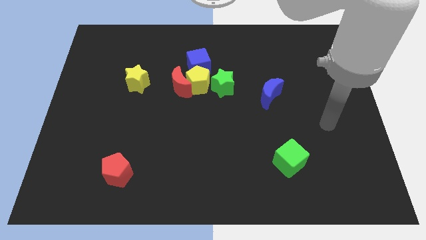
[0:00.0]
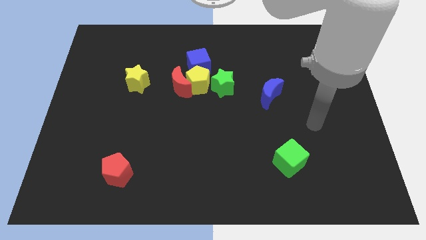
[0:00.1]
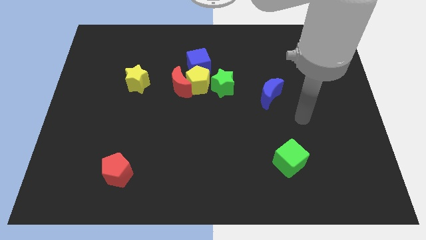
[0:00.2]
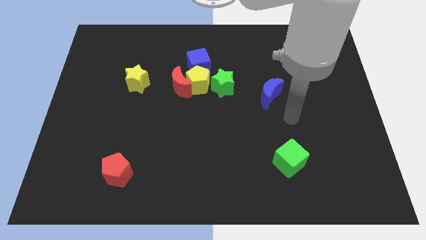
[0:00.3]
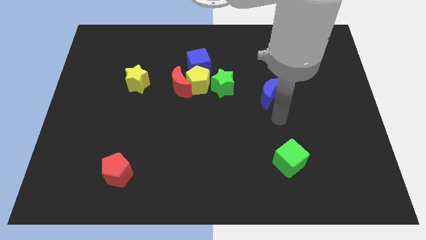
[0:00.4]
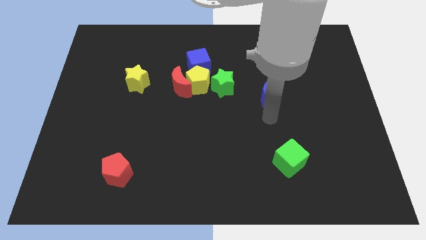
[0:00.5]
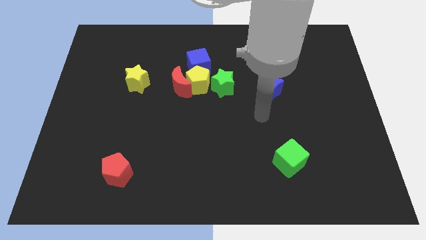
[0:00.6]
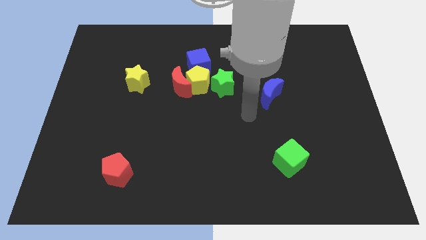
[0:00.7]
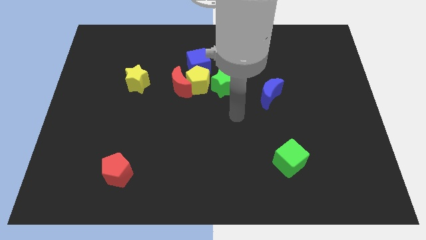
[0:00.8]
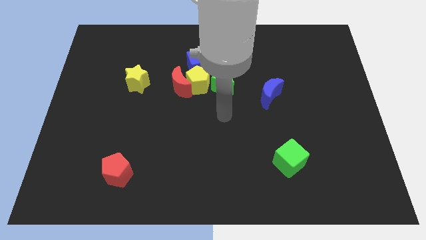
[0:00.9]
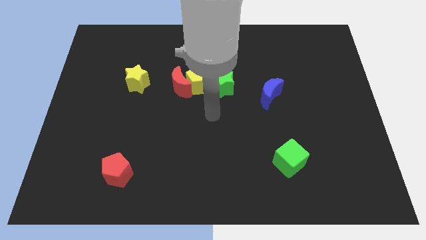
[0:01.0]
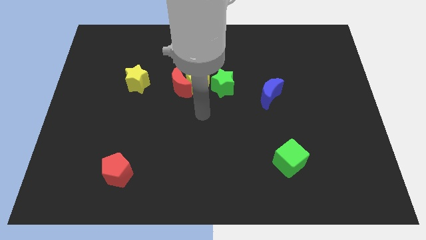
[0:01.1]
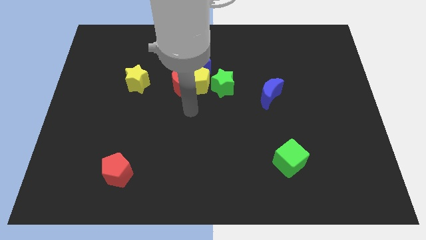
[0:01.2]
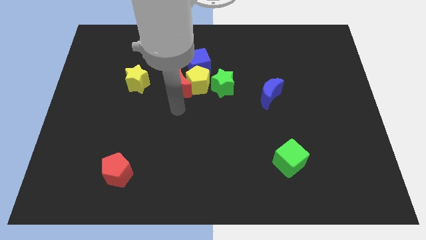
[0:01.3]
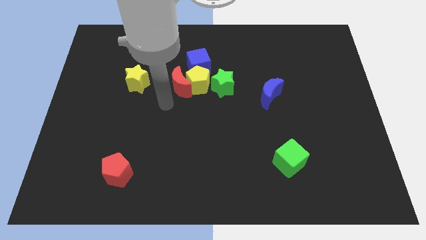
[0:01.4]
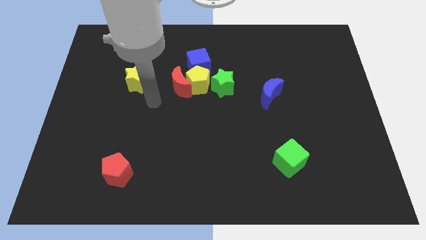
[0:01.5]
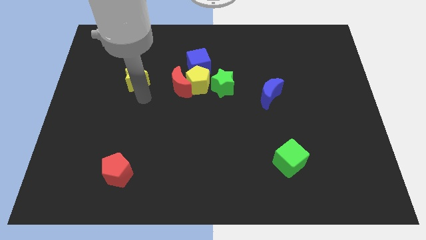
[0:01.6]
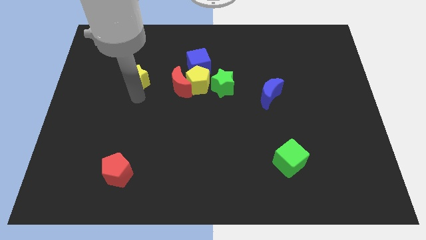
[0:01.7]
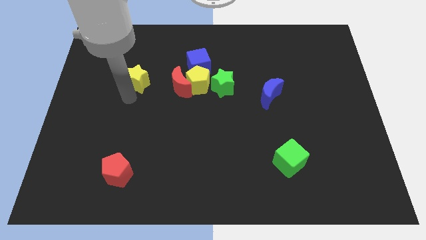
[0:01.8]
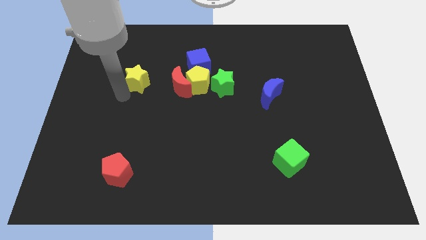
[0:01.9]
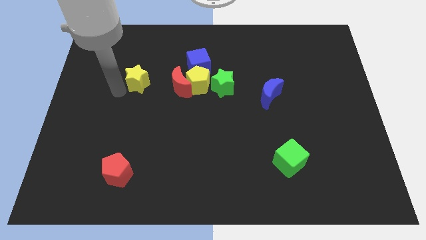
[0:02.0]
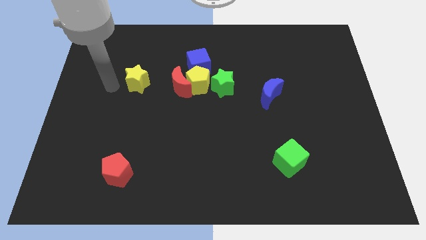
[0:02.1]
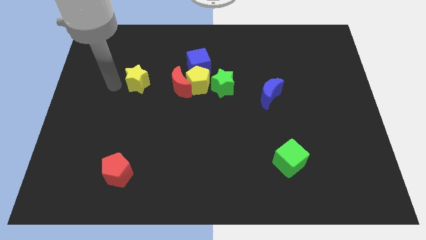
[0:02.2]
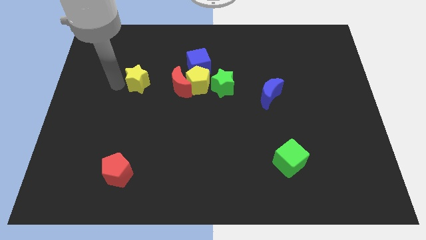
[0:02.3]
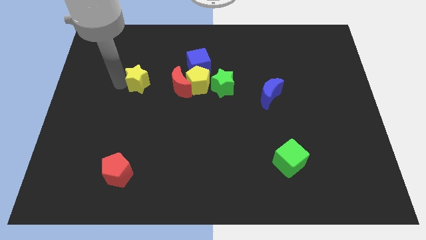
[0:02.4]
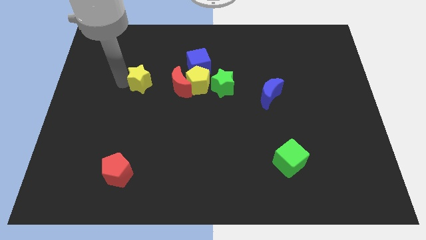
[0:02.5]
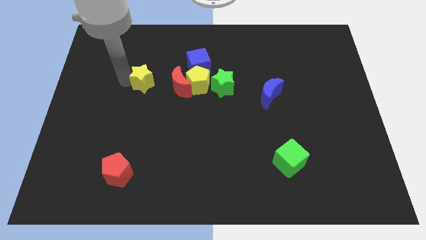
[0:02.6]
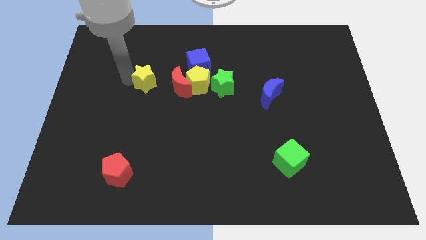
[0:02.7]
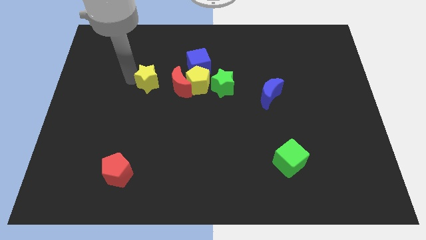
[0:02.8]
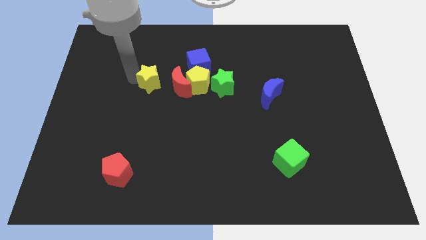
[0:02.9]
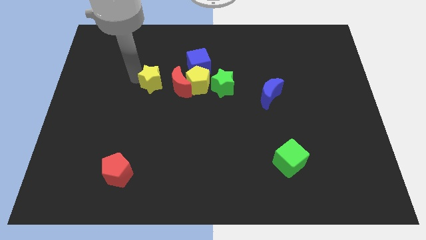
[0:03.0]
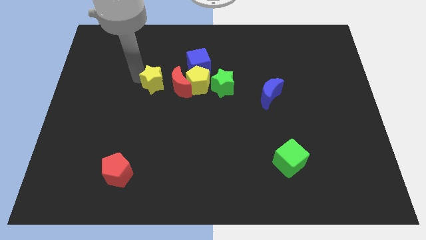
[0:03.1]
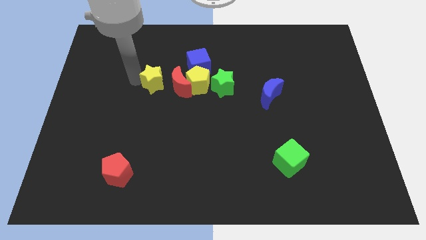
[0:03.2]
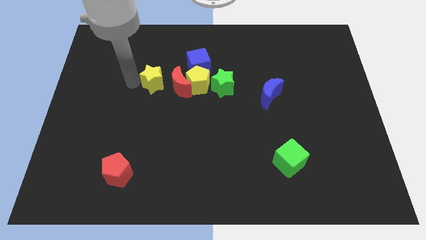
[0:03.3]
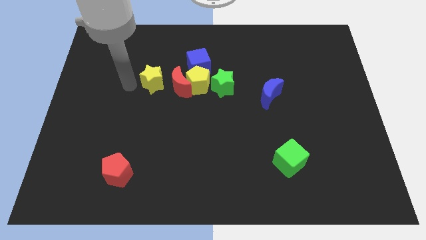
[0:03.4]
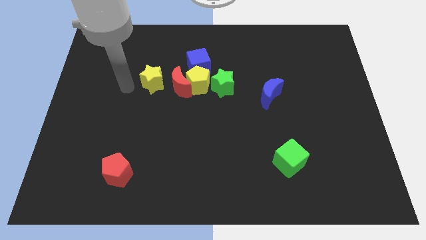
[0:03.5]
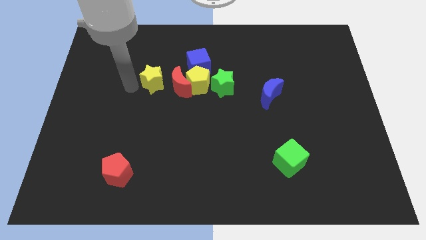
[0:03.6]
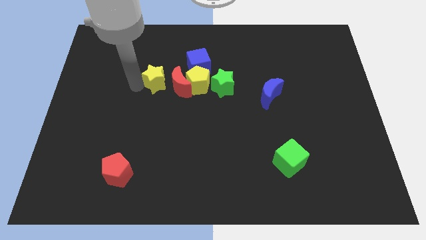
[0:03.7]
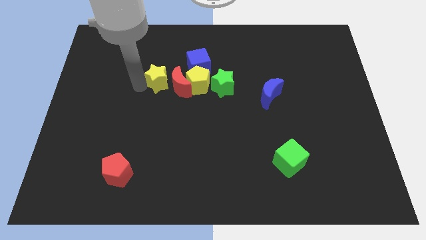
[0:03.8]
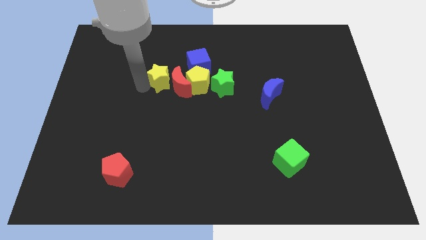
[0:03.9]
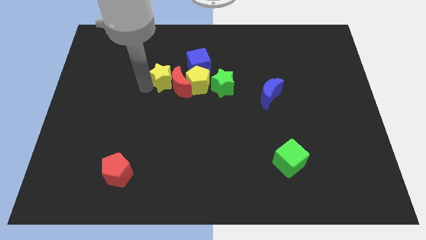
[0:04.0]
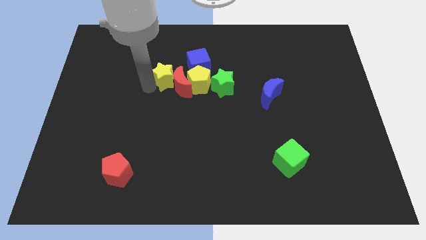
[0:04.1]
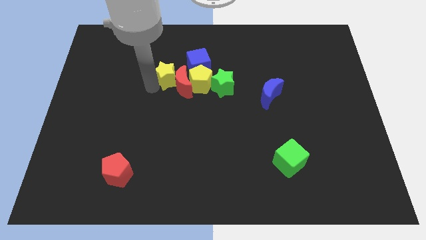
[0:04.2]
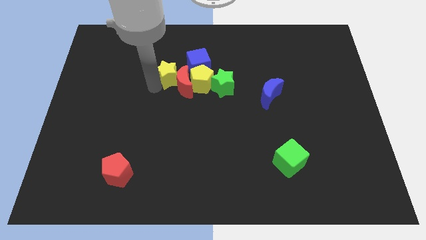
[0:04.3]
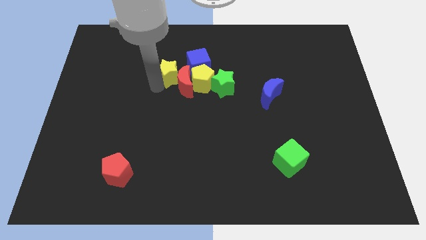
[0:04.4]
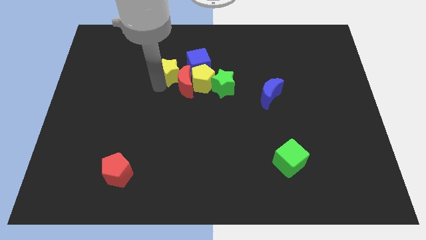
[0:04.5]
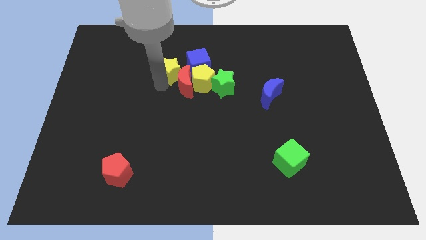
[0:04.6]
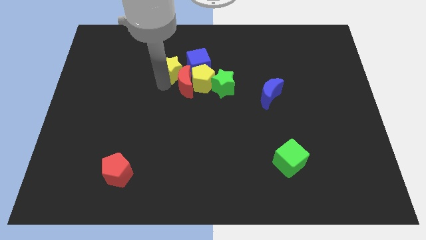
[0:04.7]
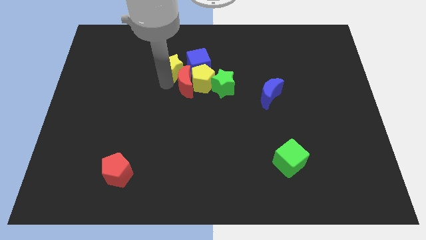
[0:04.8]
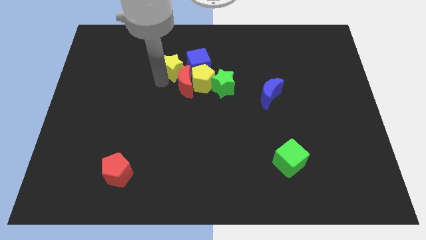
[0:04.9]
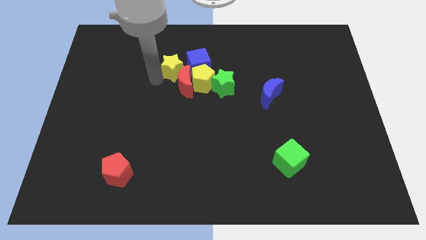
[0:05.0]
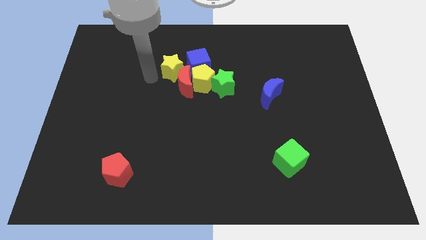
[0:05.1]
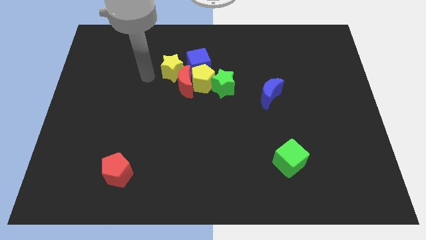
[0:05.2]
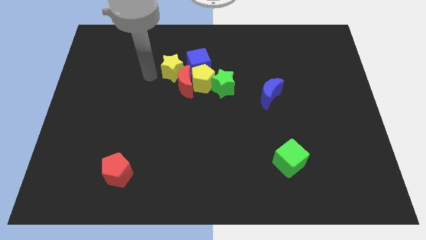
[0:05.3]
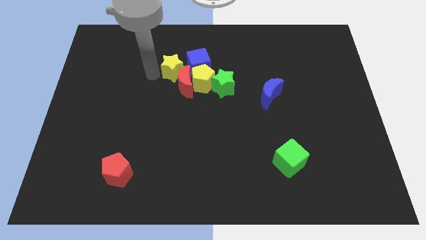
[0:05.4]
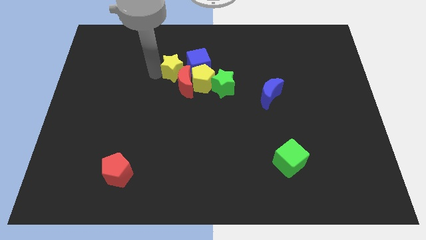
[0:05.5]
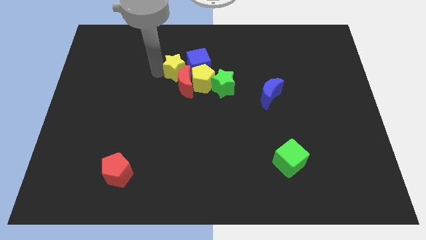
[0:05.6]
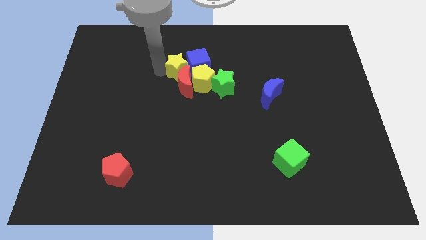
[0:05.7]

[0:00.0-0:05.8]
move the yellow star close to the blue cube
